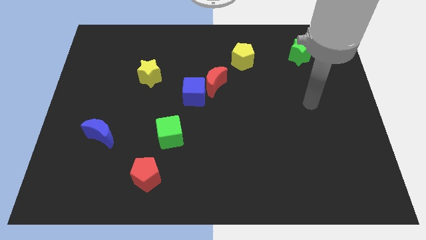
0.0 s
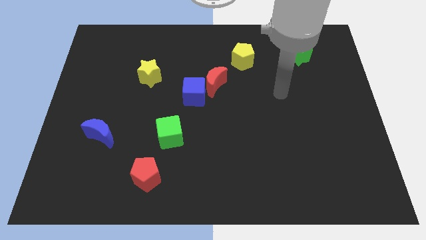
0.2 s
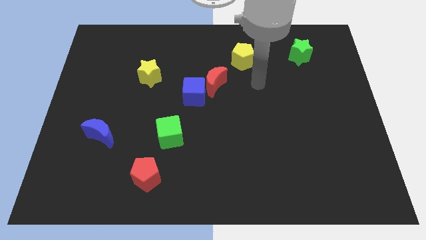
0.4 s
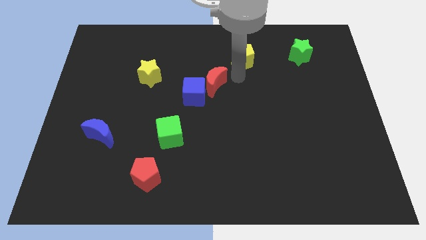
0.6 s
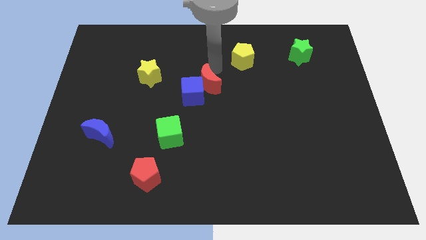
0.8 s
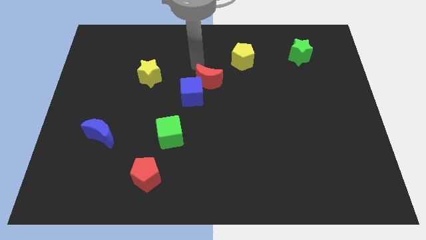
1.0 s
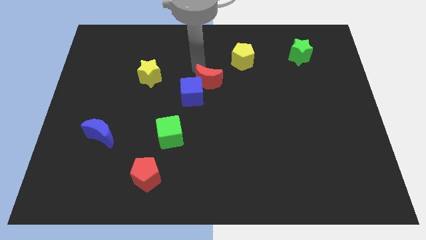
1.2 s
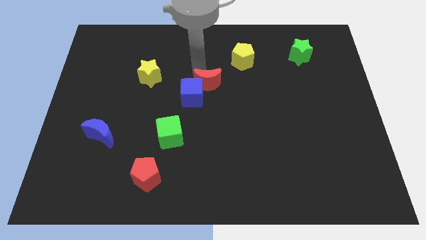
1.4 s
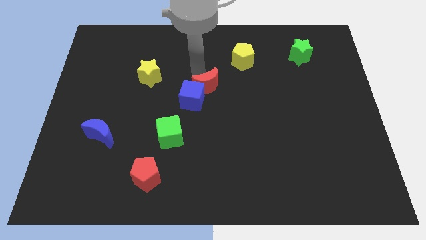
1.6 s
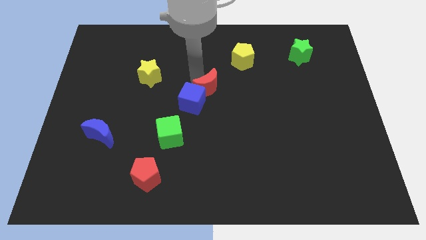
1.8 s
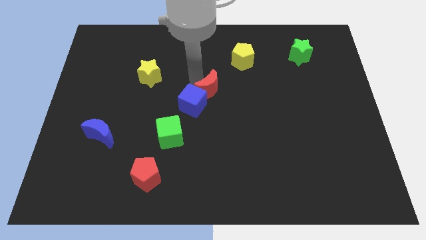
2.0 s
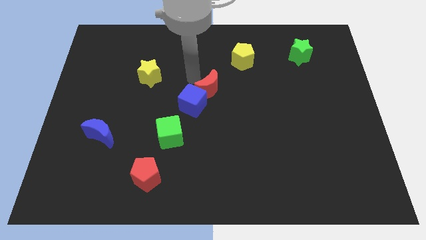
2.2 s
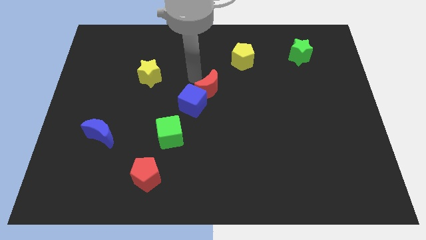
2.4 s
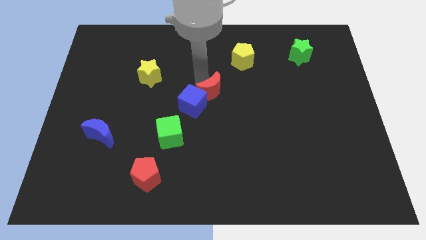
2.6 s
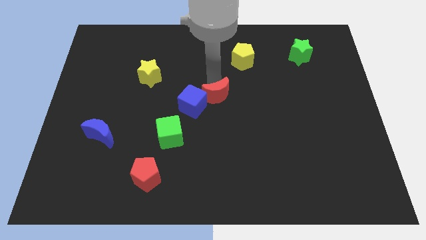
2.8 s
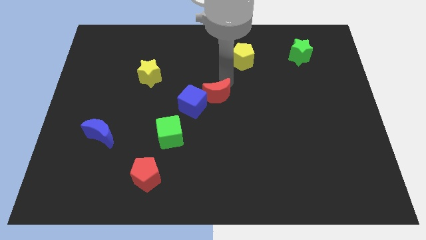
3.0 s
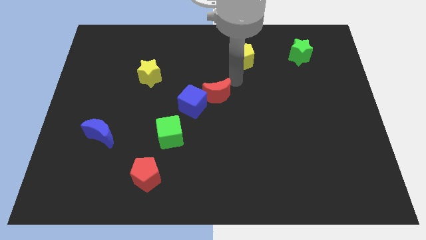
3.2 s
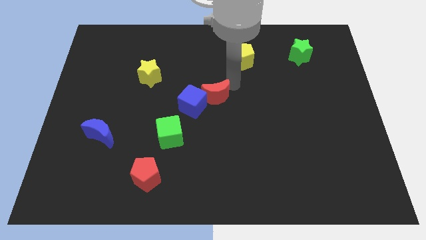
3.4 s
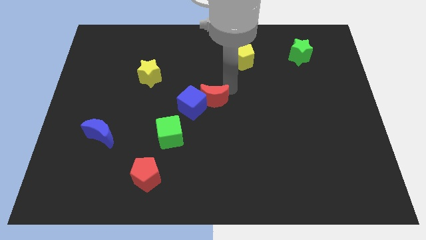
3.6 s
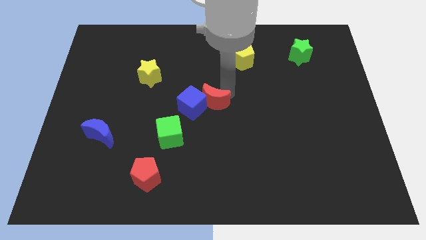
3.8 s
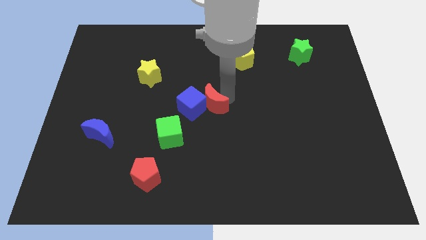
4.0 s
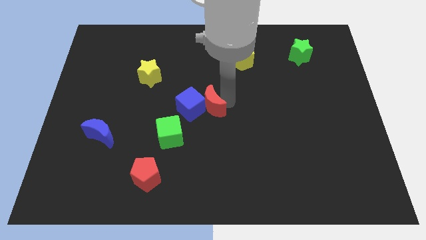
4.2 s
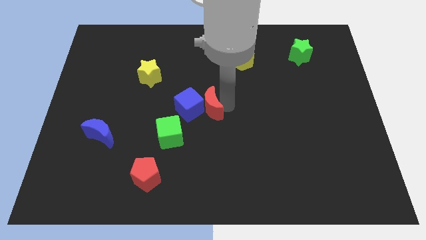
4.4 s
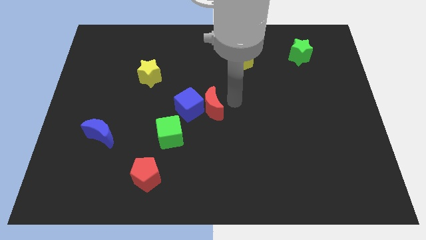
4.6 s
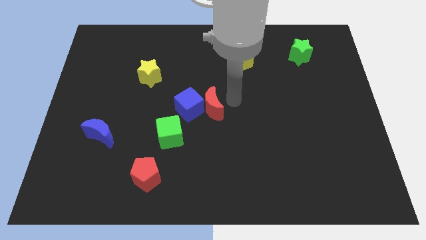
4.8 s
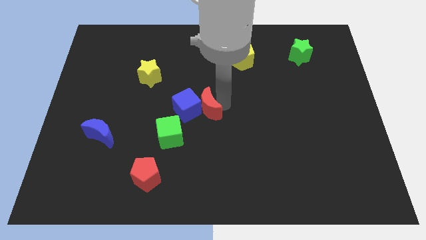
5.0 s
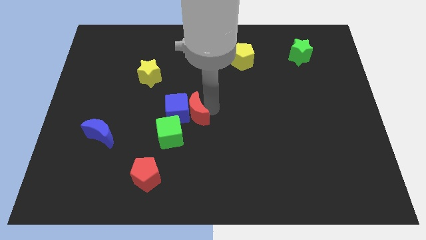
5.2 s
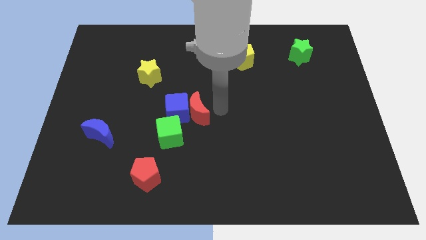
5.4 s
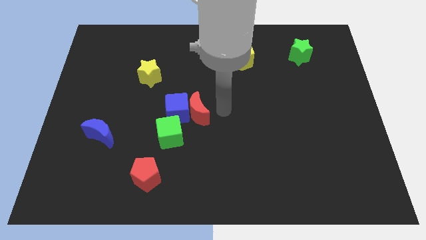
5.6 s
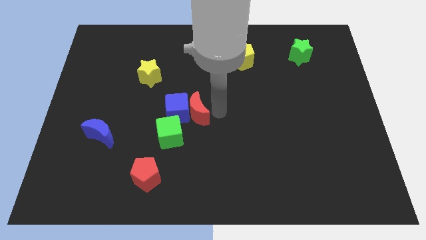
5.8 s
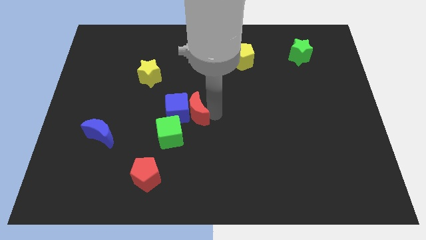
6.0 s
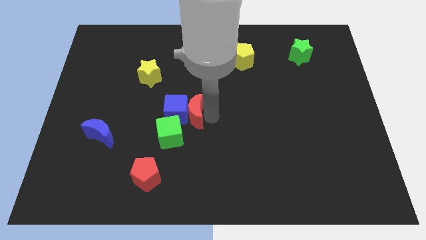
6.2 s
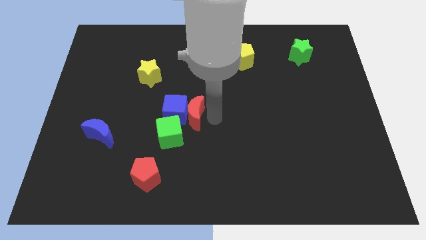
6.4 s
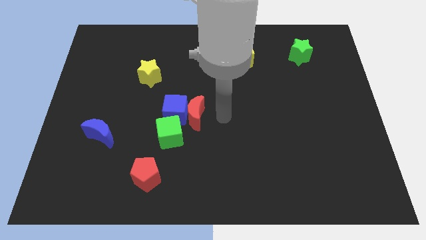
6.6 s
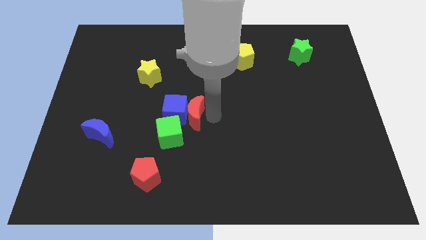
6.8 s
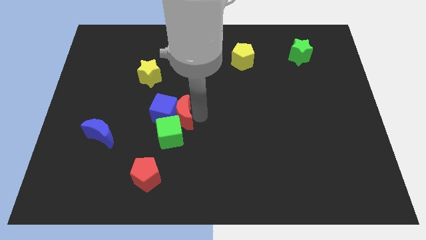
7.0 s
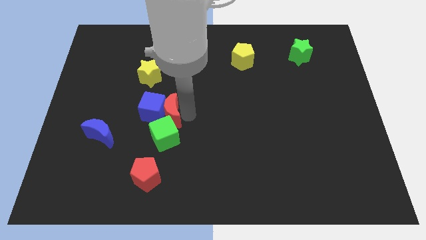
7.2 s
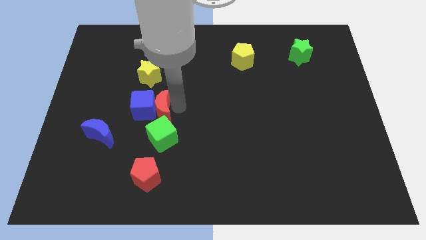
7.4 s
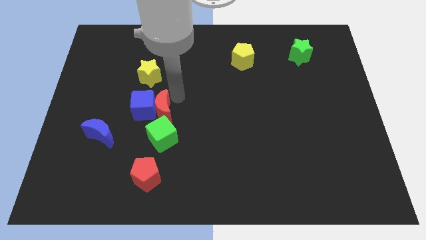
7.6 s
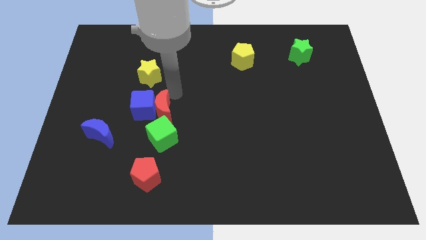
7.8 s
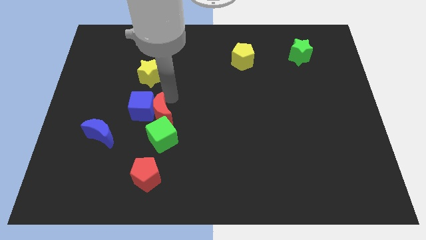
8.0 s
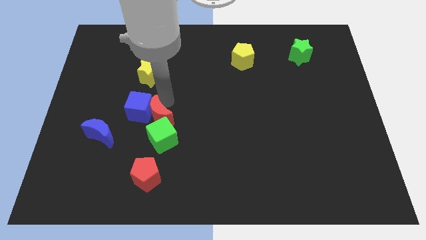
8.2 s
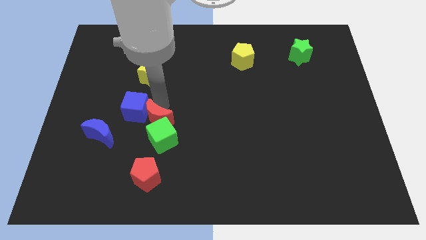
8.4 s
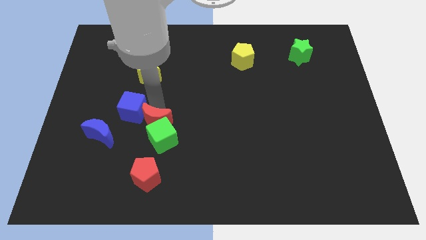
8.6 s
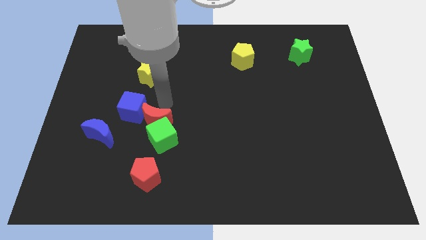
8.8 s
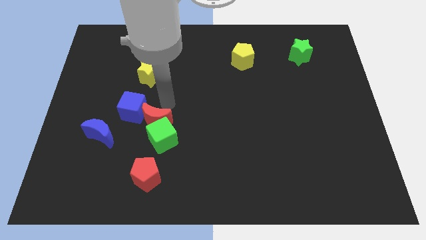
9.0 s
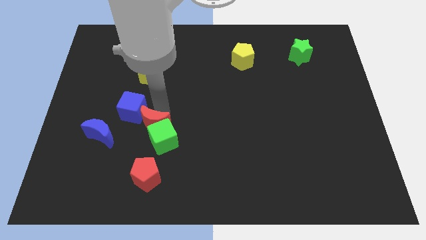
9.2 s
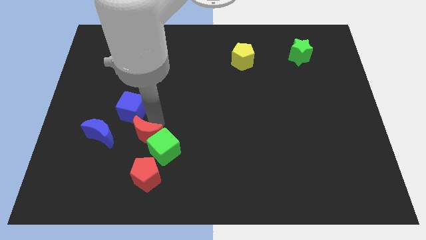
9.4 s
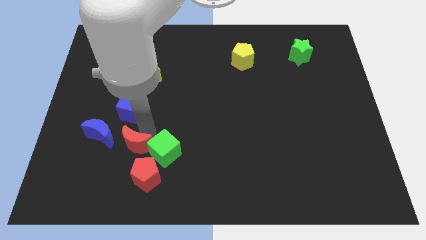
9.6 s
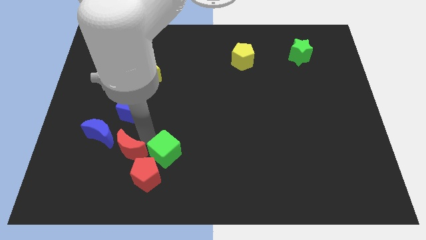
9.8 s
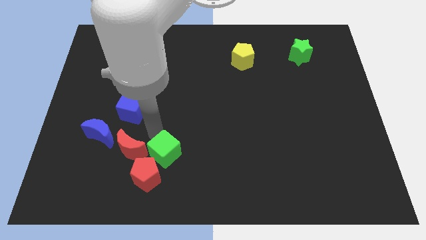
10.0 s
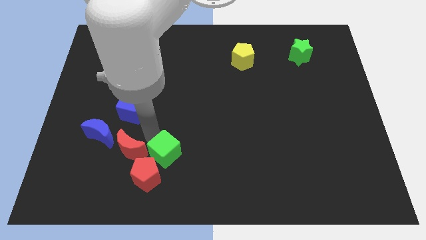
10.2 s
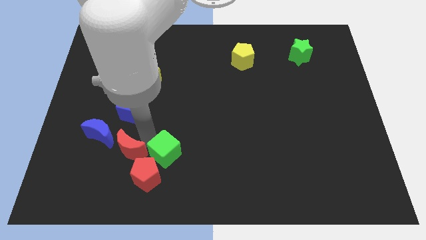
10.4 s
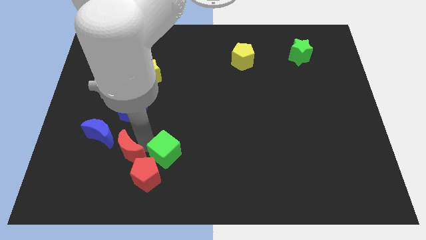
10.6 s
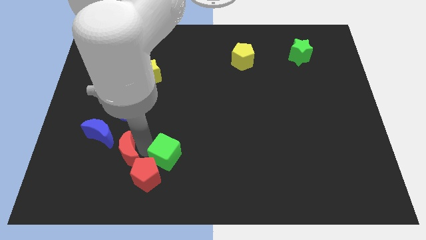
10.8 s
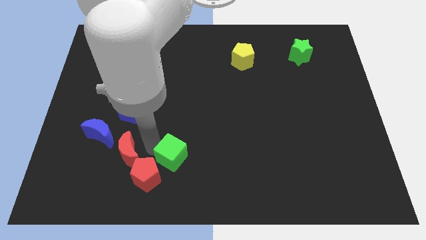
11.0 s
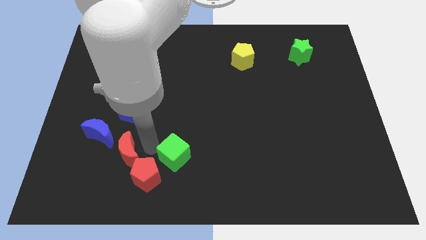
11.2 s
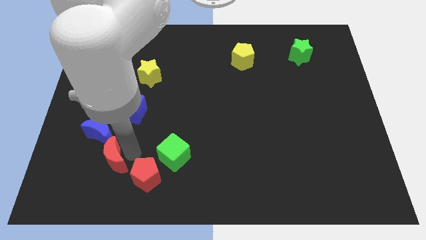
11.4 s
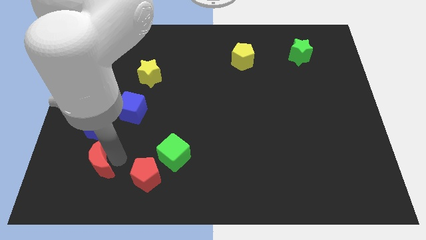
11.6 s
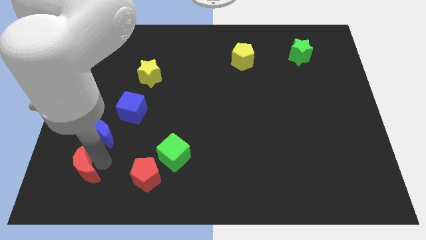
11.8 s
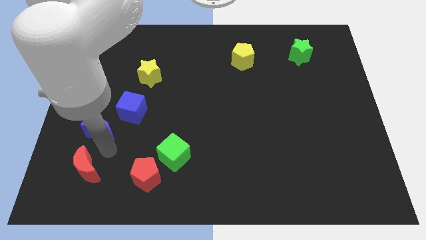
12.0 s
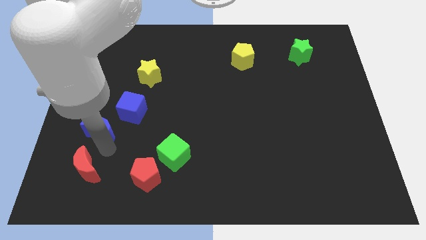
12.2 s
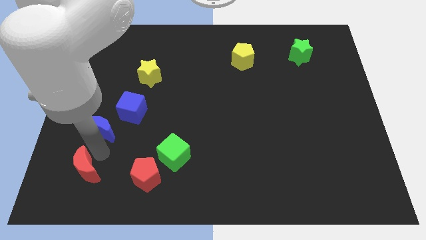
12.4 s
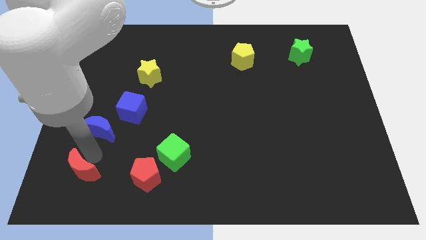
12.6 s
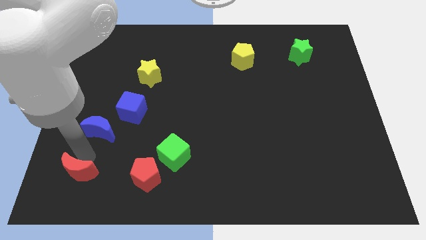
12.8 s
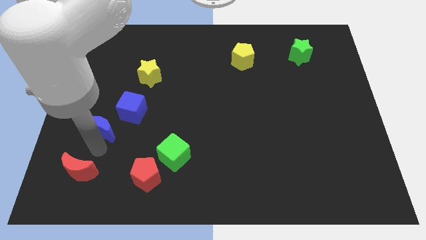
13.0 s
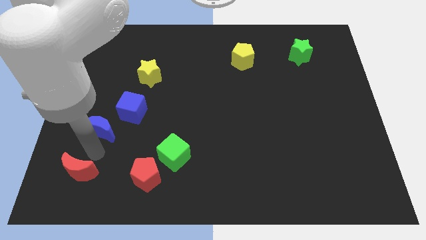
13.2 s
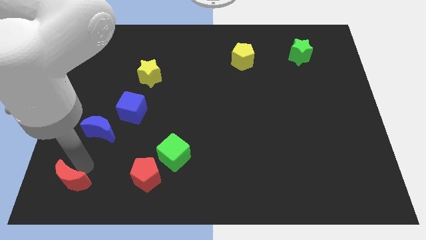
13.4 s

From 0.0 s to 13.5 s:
put the red moon to the bottom left
